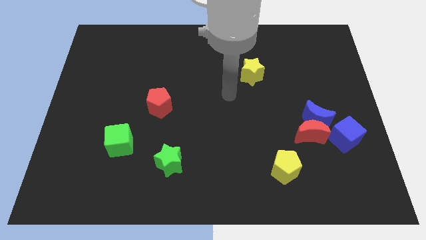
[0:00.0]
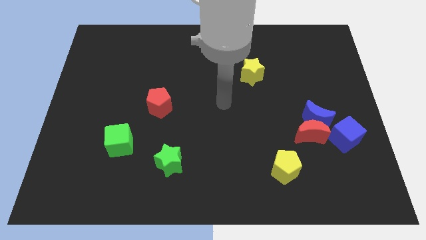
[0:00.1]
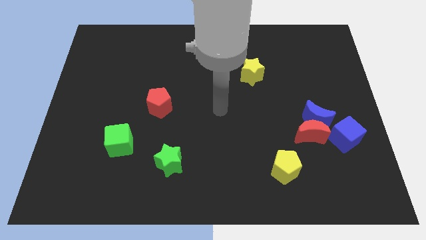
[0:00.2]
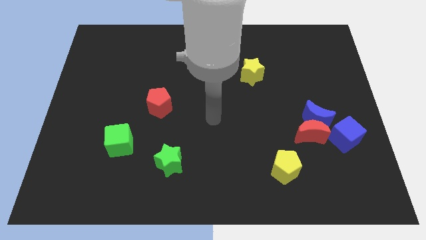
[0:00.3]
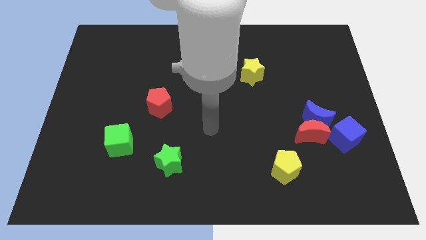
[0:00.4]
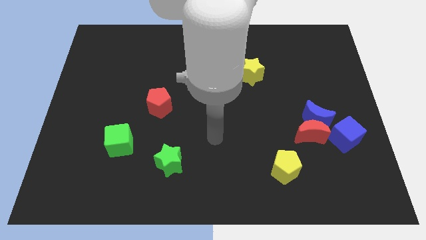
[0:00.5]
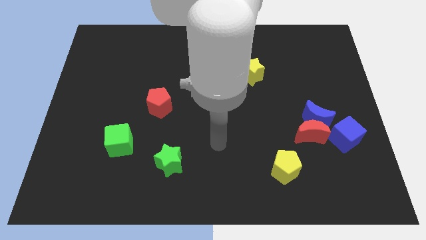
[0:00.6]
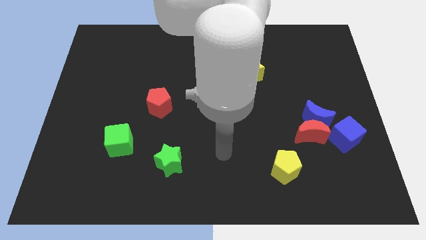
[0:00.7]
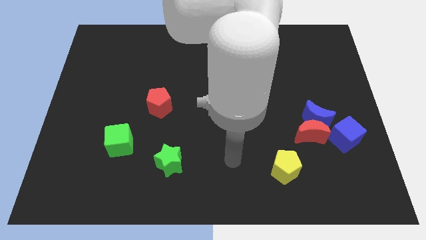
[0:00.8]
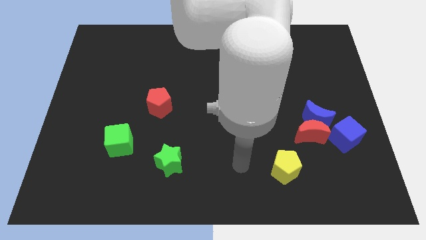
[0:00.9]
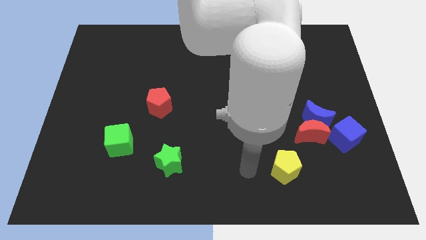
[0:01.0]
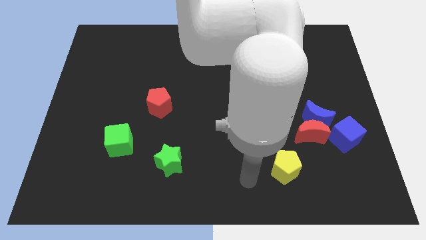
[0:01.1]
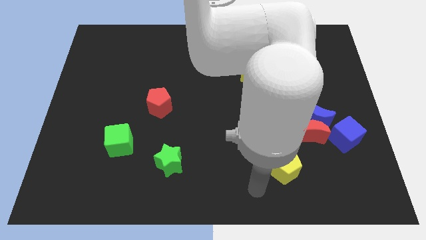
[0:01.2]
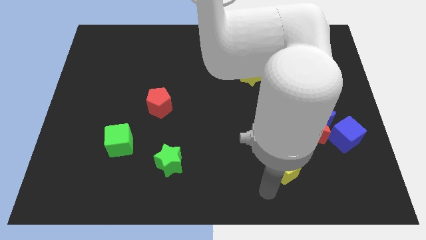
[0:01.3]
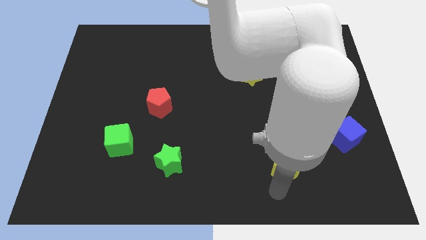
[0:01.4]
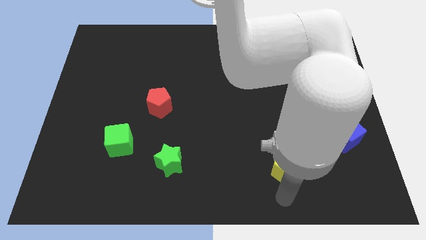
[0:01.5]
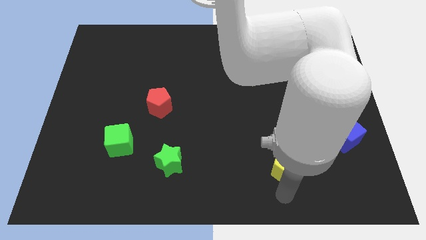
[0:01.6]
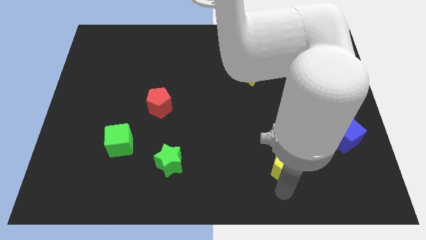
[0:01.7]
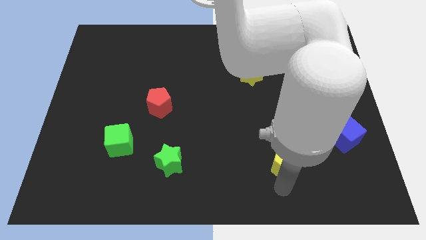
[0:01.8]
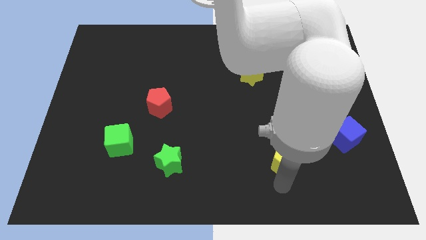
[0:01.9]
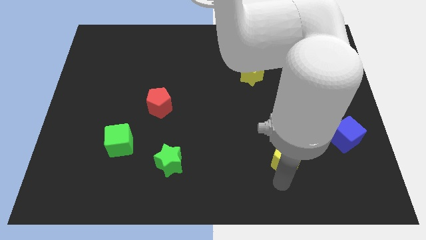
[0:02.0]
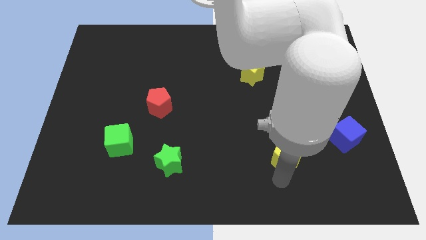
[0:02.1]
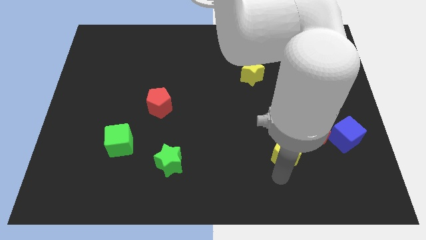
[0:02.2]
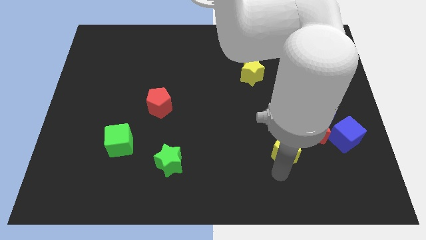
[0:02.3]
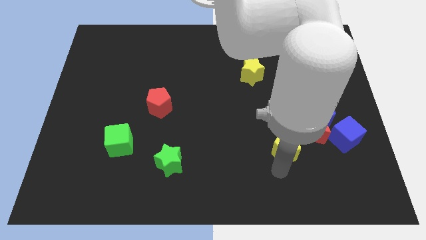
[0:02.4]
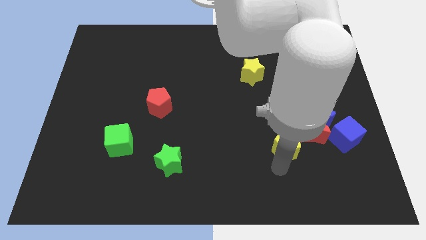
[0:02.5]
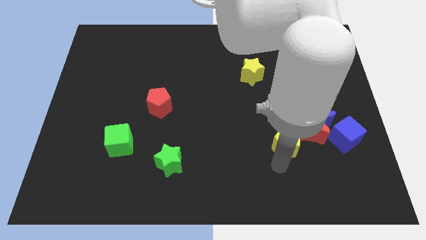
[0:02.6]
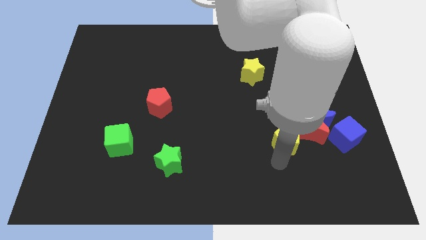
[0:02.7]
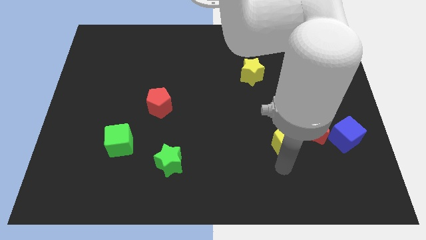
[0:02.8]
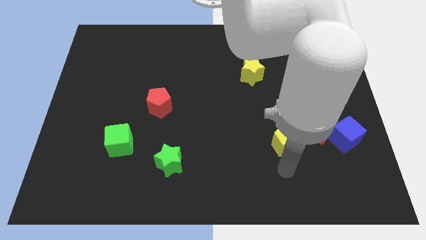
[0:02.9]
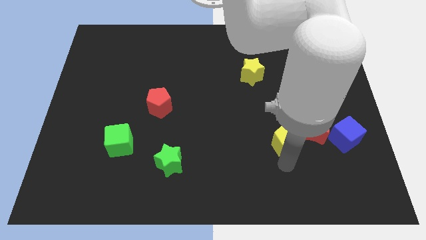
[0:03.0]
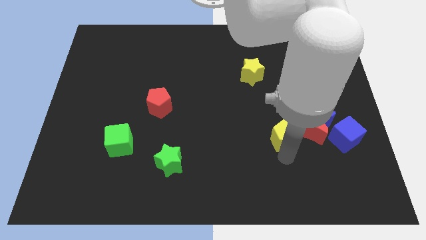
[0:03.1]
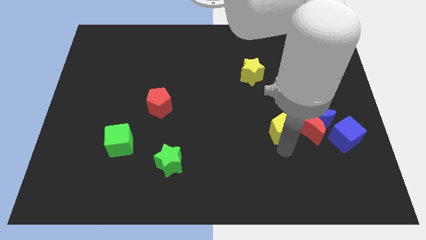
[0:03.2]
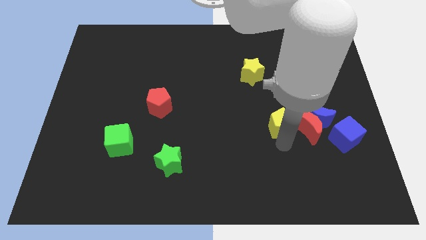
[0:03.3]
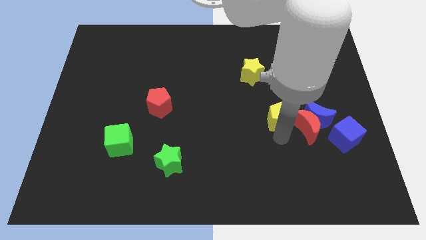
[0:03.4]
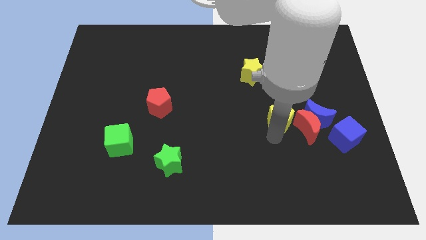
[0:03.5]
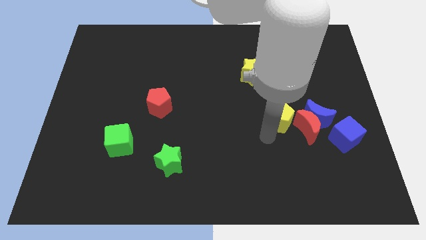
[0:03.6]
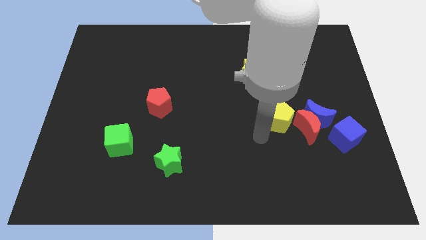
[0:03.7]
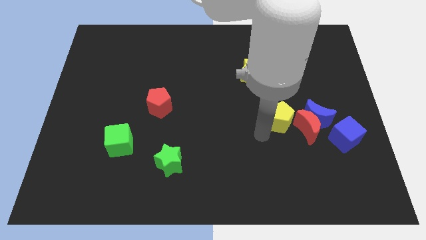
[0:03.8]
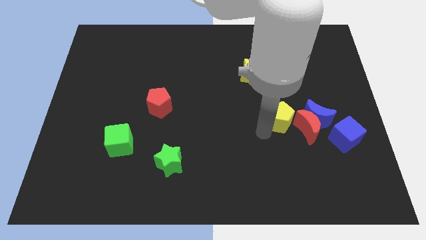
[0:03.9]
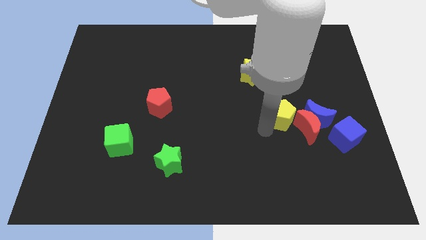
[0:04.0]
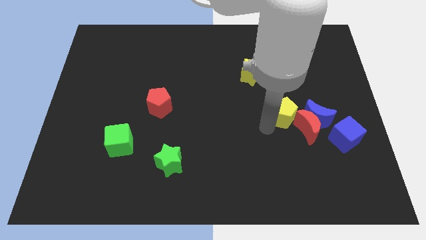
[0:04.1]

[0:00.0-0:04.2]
move the yellow pentagon up and right diagonally somewhat

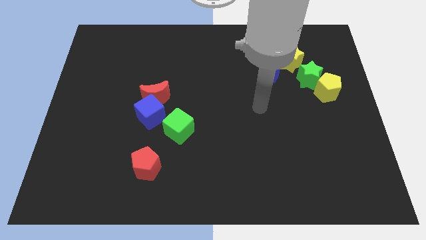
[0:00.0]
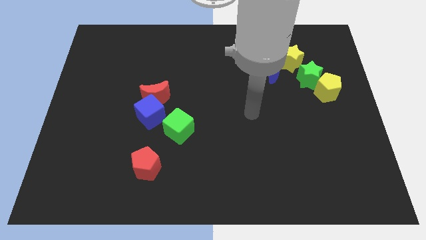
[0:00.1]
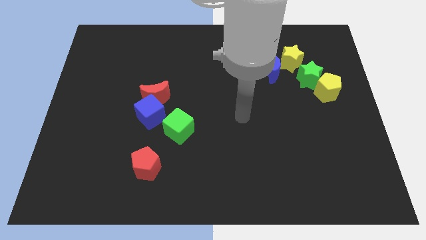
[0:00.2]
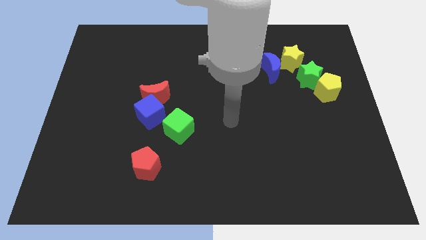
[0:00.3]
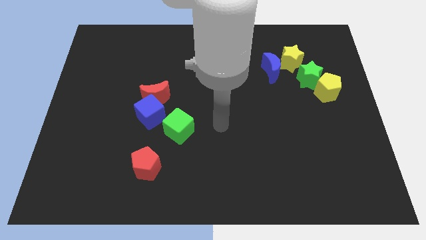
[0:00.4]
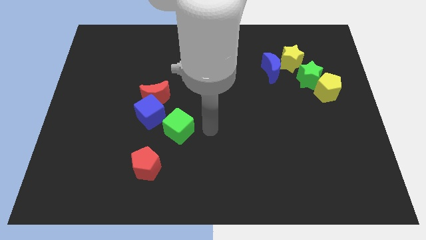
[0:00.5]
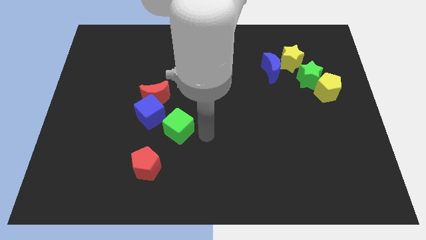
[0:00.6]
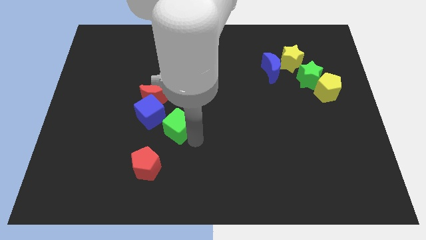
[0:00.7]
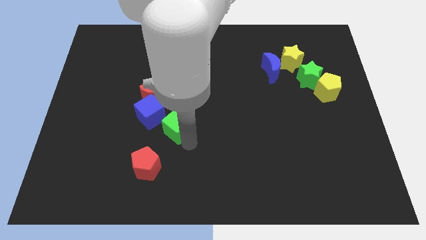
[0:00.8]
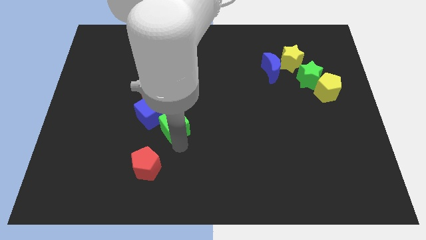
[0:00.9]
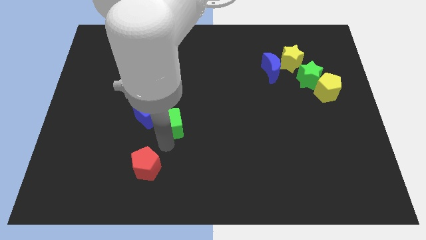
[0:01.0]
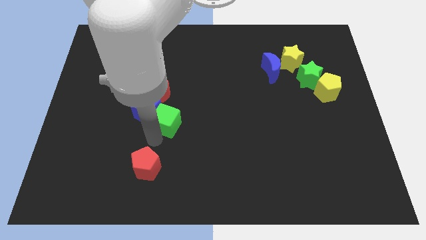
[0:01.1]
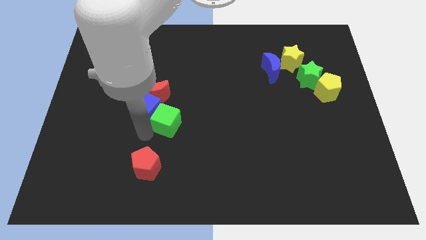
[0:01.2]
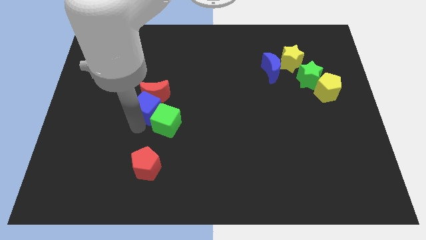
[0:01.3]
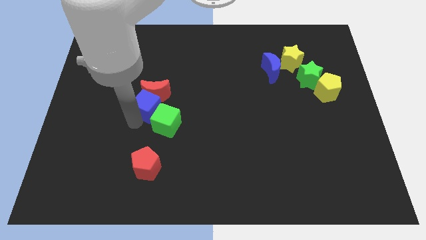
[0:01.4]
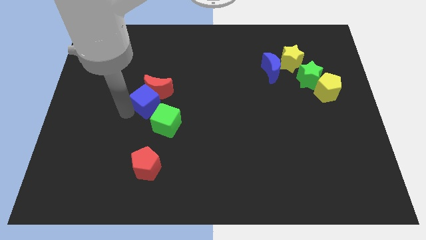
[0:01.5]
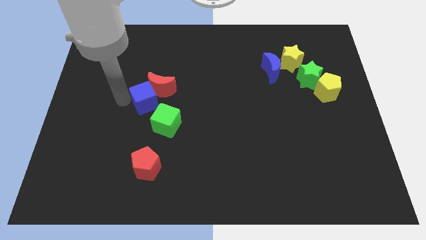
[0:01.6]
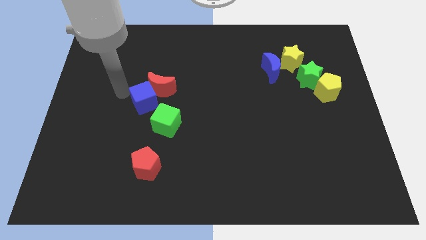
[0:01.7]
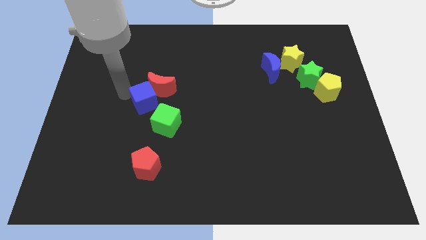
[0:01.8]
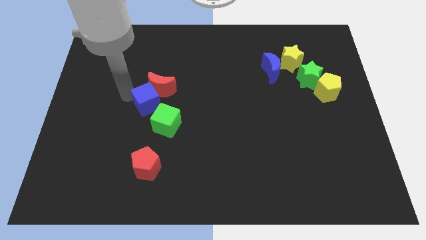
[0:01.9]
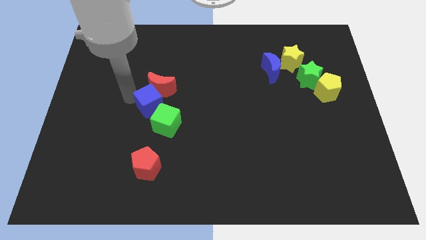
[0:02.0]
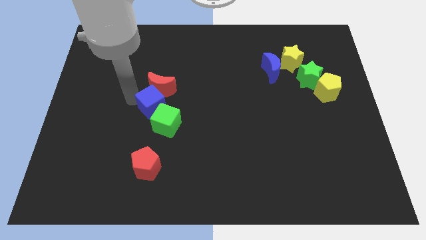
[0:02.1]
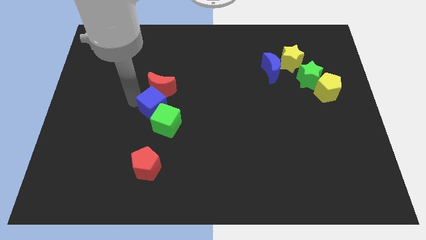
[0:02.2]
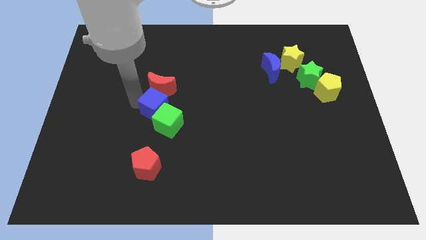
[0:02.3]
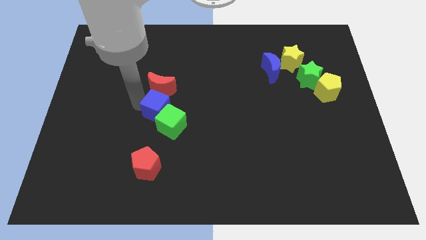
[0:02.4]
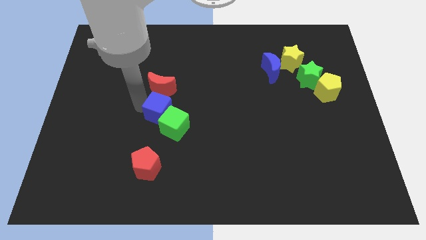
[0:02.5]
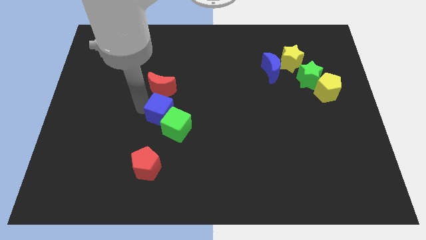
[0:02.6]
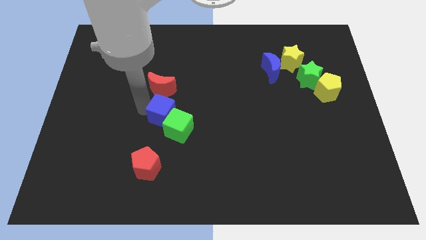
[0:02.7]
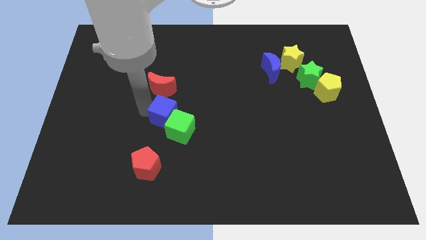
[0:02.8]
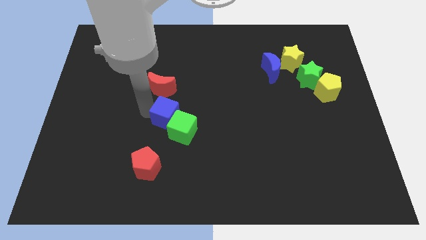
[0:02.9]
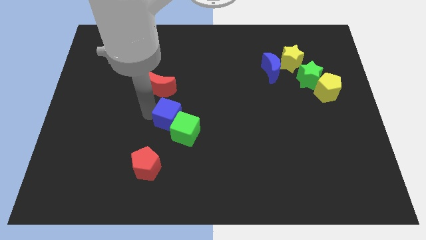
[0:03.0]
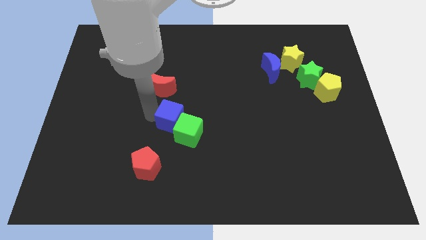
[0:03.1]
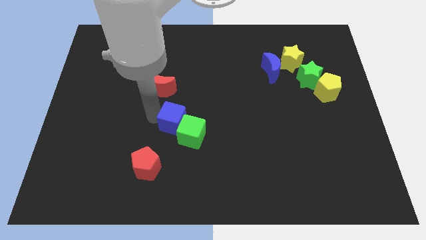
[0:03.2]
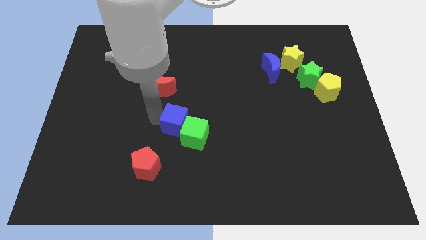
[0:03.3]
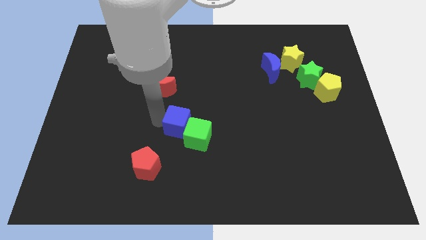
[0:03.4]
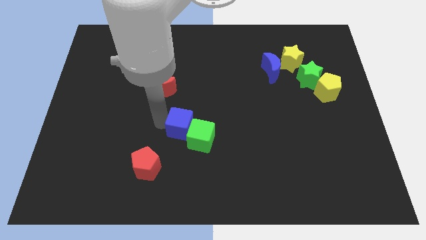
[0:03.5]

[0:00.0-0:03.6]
move the blue cube to the right somewhat
